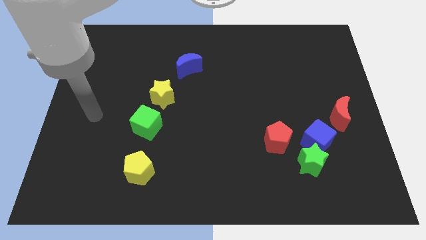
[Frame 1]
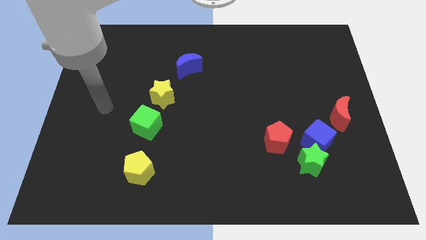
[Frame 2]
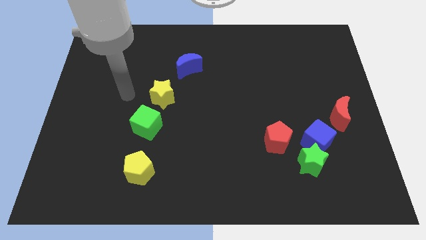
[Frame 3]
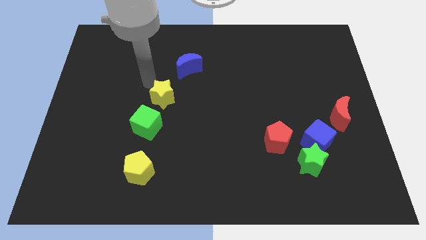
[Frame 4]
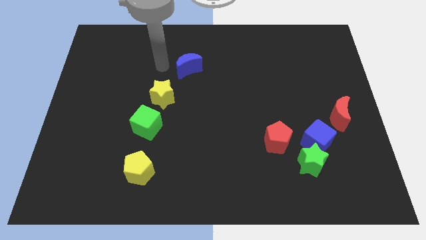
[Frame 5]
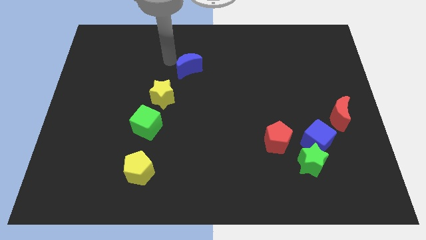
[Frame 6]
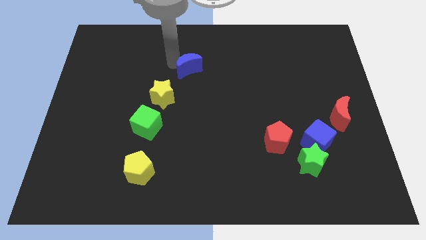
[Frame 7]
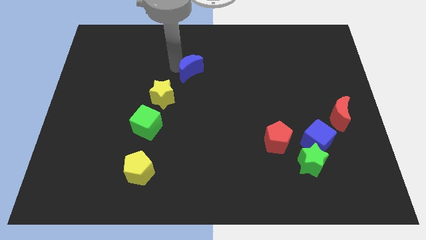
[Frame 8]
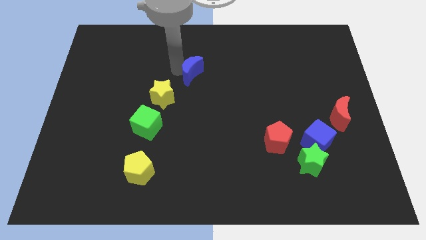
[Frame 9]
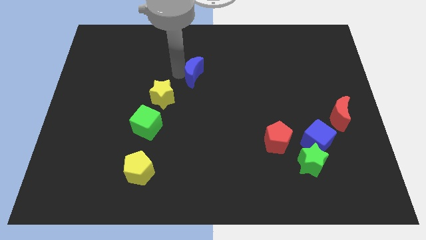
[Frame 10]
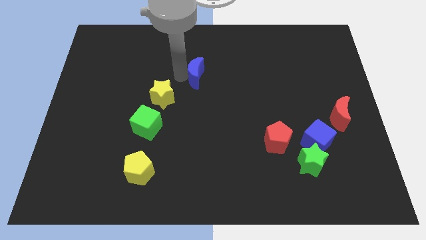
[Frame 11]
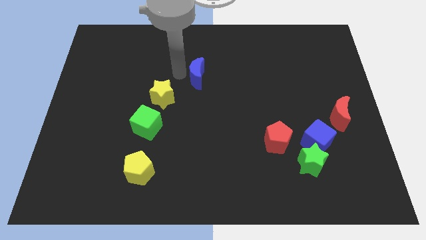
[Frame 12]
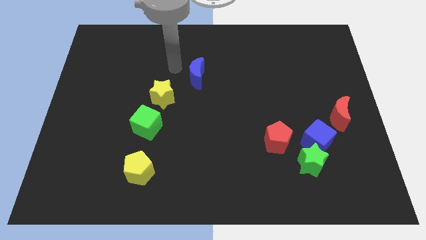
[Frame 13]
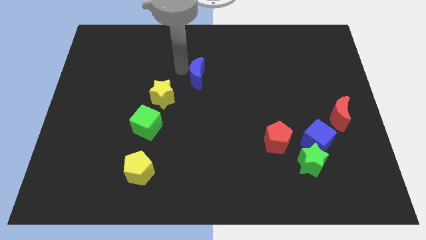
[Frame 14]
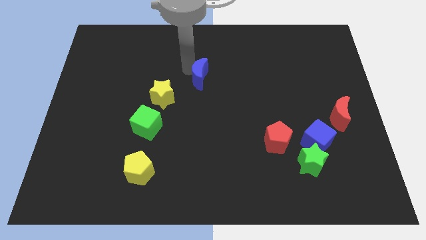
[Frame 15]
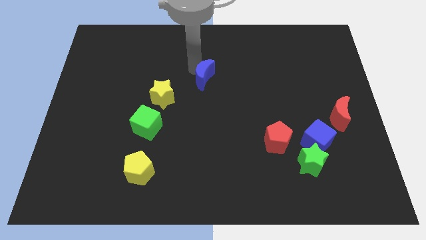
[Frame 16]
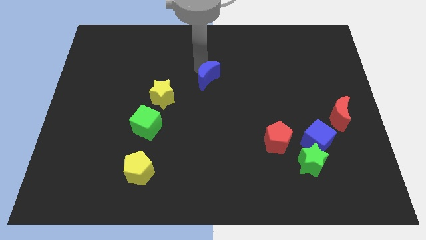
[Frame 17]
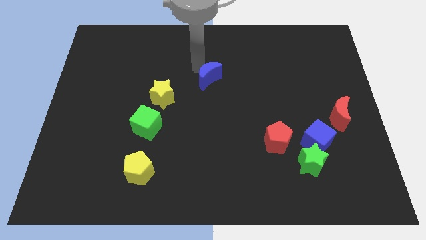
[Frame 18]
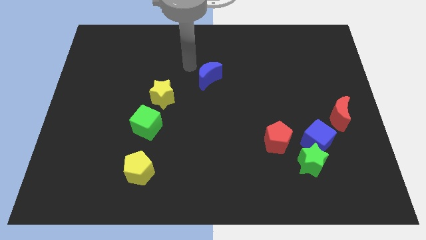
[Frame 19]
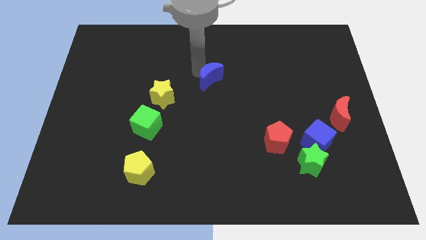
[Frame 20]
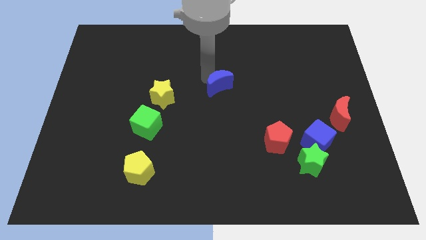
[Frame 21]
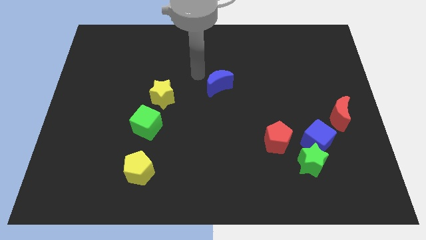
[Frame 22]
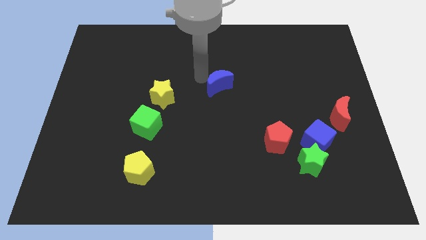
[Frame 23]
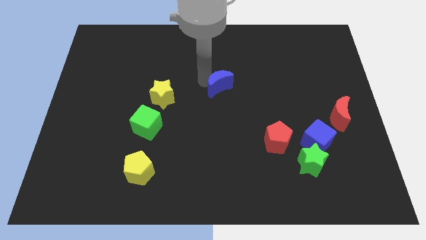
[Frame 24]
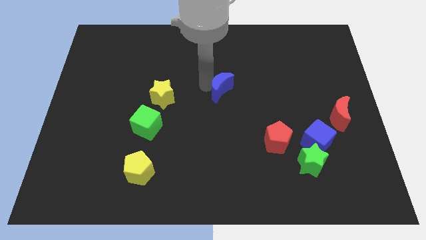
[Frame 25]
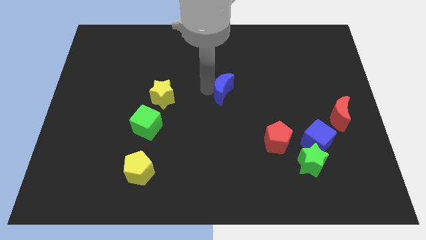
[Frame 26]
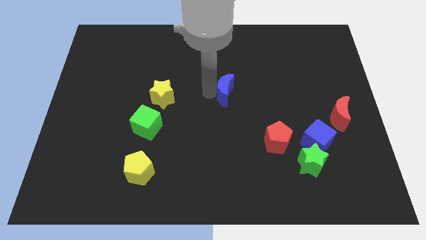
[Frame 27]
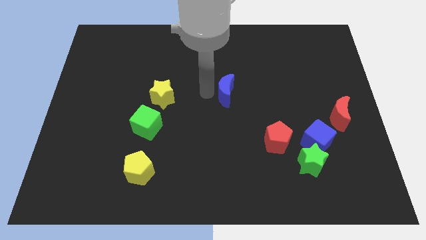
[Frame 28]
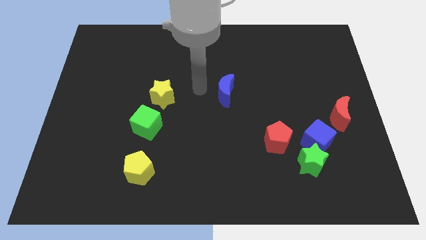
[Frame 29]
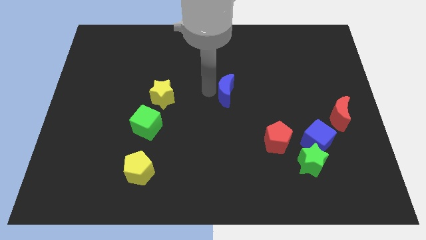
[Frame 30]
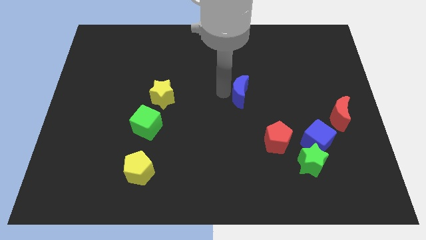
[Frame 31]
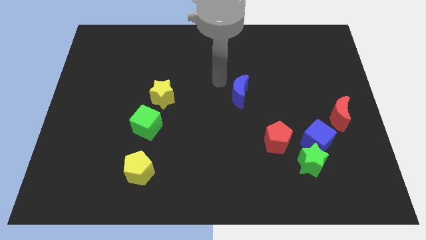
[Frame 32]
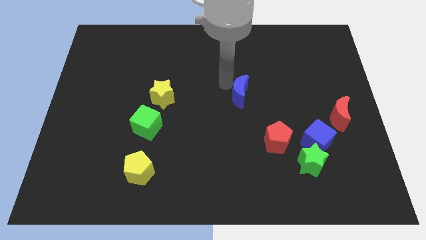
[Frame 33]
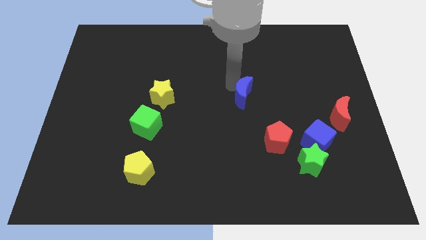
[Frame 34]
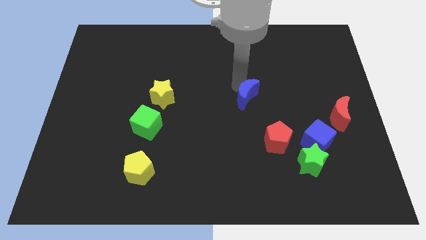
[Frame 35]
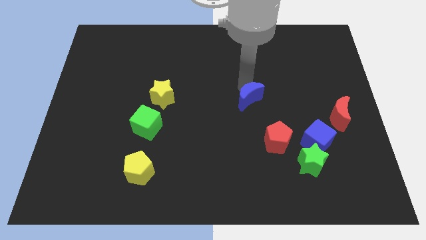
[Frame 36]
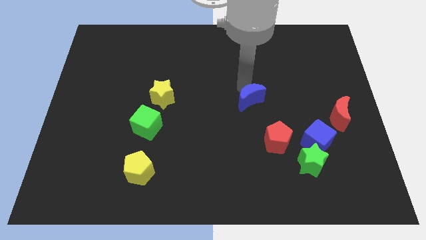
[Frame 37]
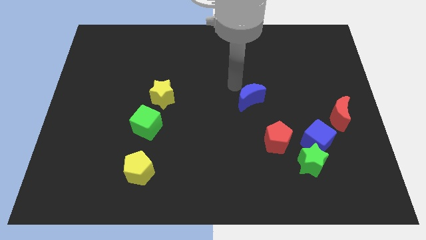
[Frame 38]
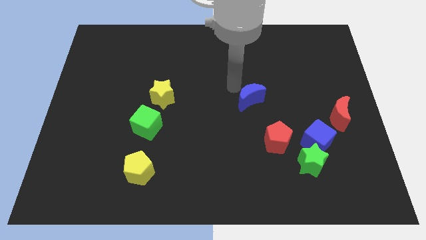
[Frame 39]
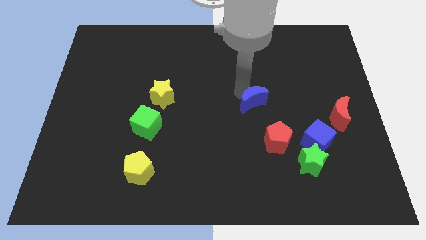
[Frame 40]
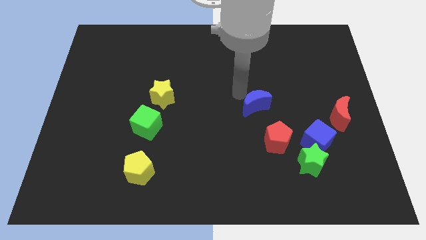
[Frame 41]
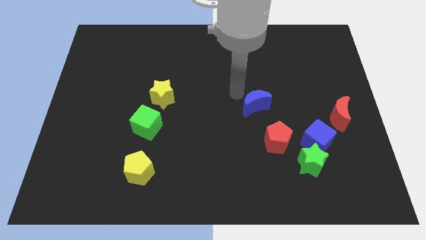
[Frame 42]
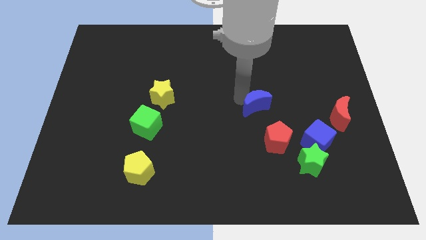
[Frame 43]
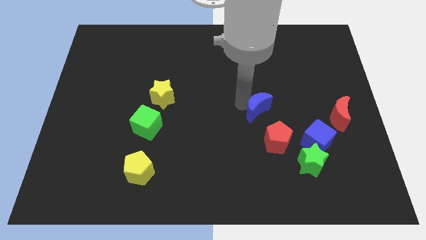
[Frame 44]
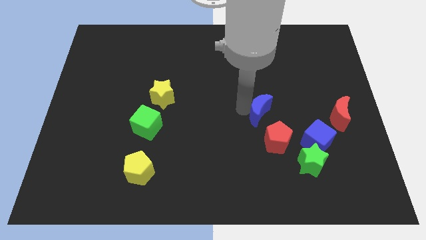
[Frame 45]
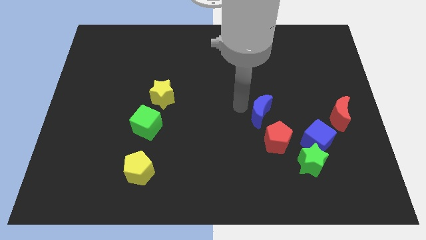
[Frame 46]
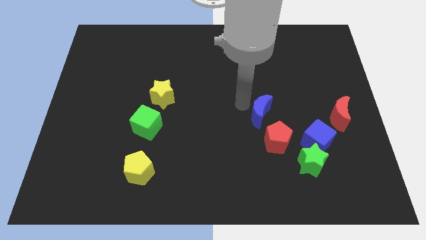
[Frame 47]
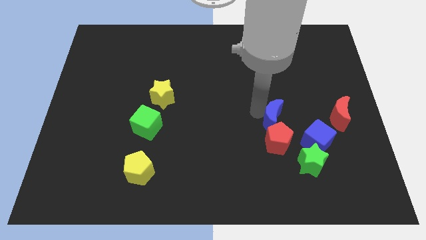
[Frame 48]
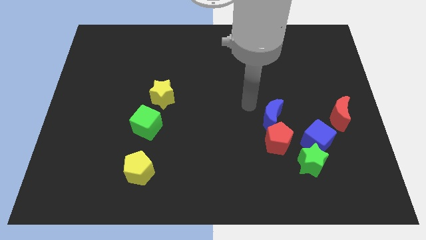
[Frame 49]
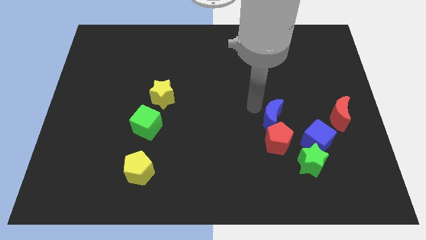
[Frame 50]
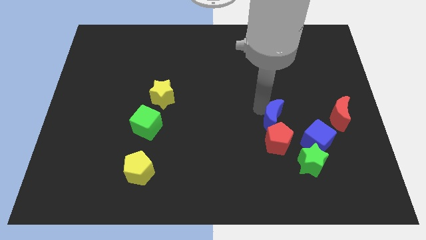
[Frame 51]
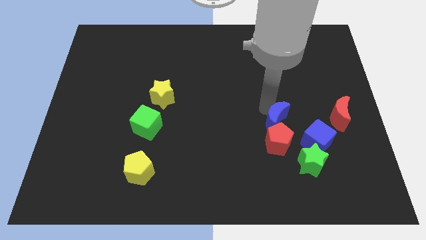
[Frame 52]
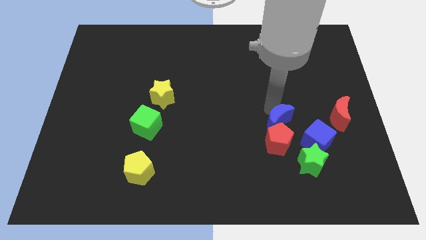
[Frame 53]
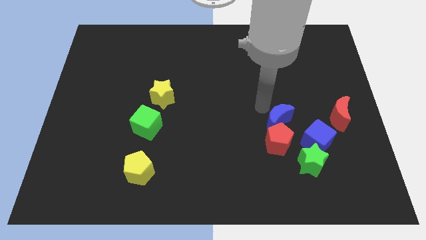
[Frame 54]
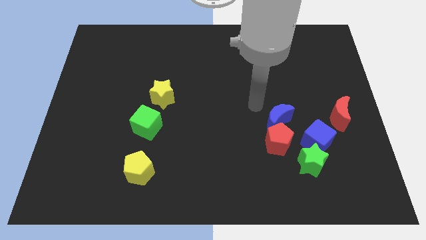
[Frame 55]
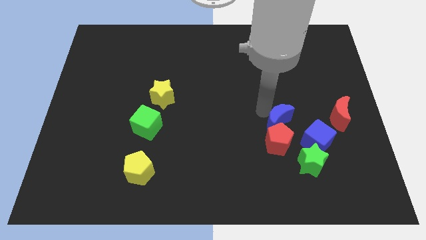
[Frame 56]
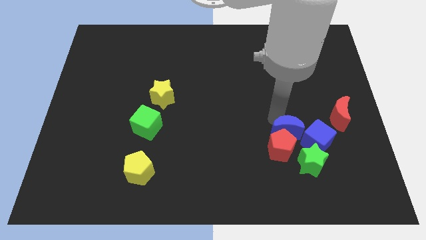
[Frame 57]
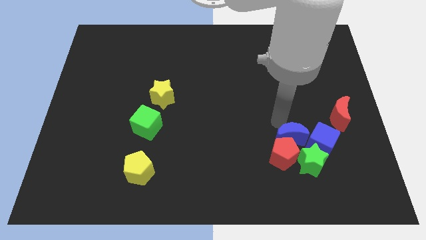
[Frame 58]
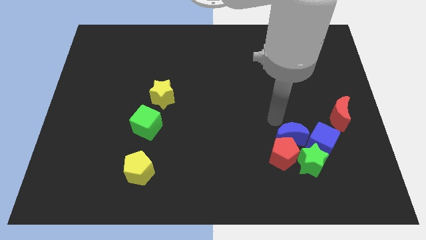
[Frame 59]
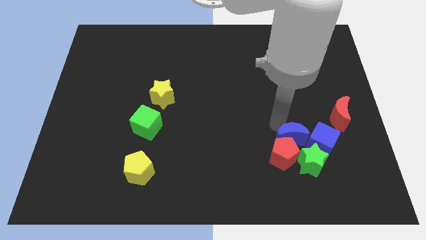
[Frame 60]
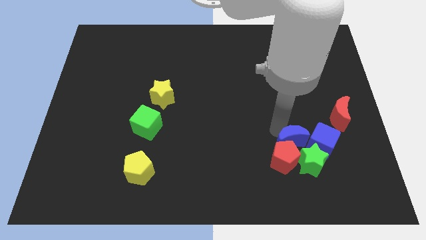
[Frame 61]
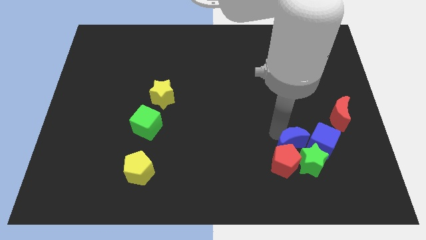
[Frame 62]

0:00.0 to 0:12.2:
put the blue moon towards the green star

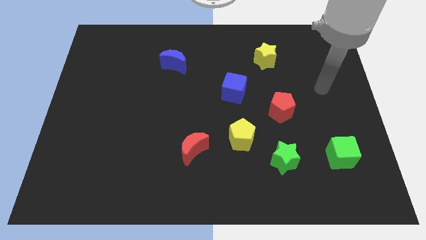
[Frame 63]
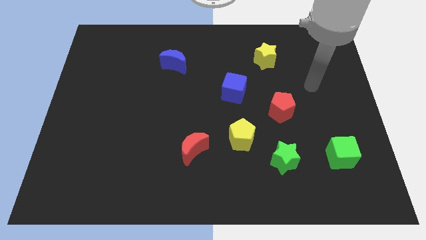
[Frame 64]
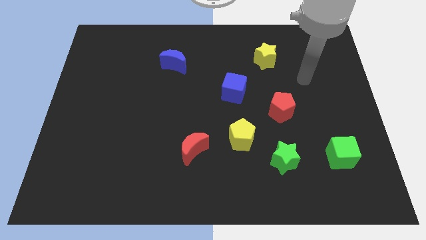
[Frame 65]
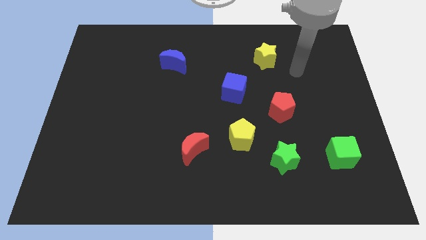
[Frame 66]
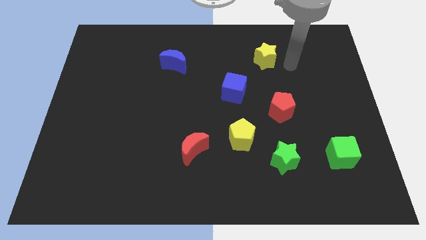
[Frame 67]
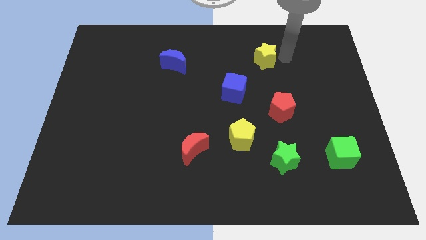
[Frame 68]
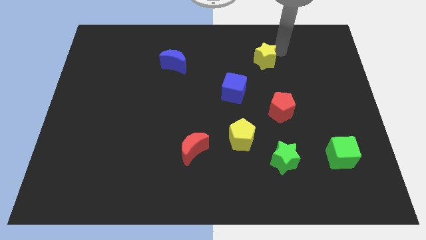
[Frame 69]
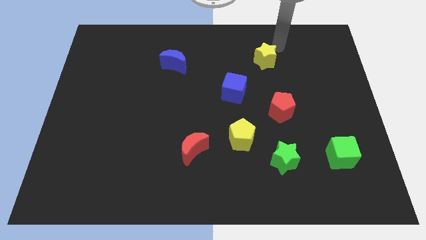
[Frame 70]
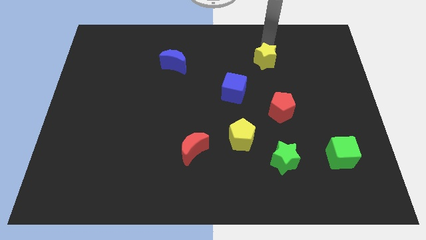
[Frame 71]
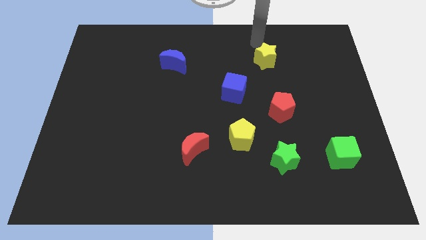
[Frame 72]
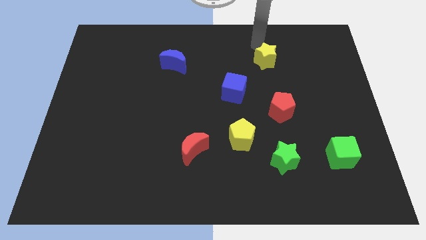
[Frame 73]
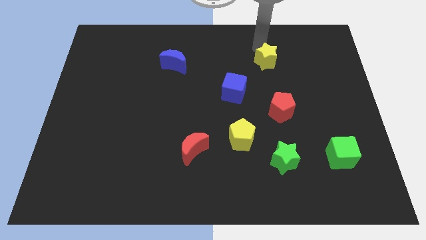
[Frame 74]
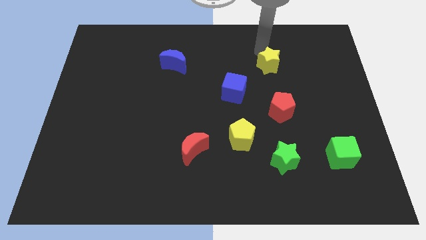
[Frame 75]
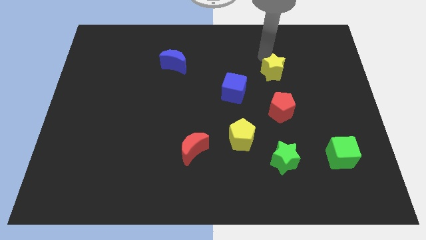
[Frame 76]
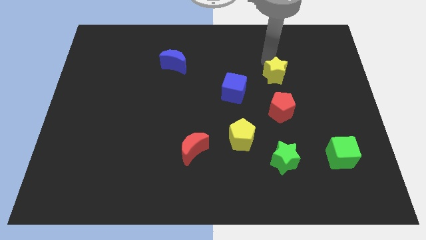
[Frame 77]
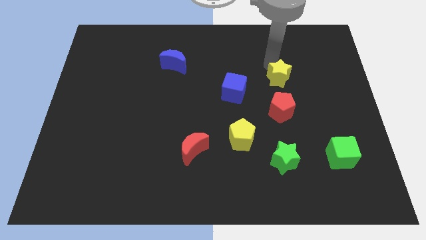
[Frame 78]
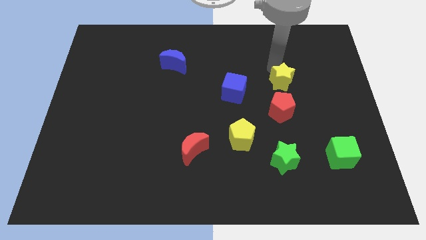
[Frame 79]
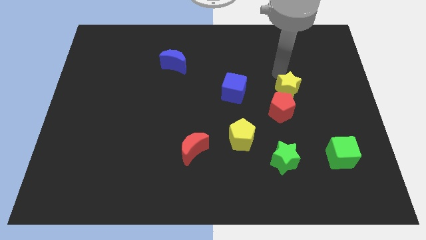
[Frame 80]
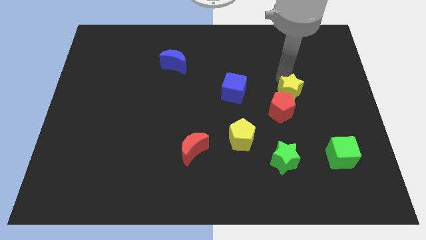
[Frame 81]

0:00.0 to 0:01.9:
slide the yellow star towards the red pentagon
